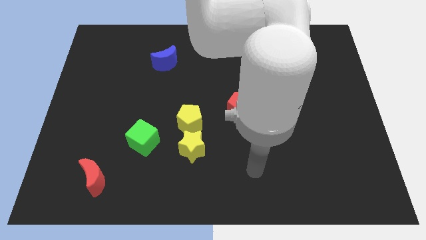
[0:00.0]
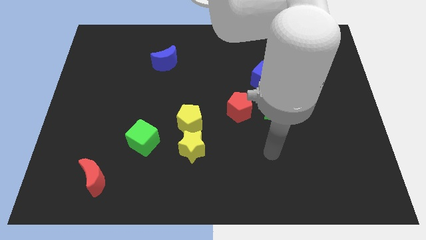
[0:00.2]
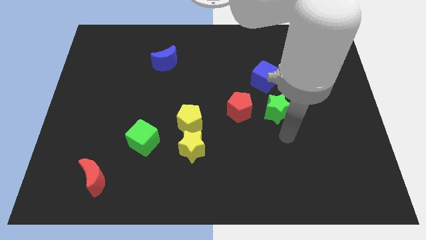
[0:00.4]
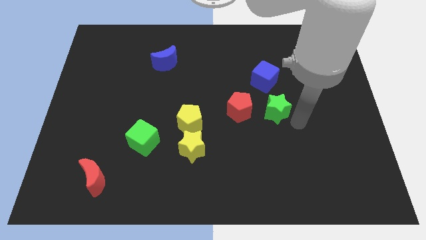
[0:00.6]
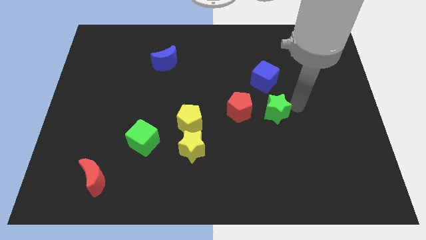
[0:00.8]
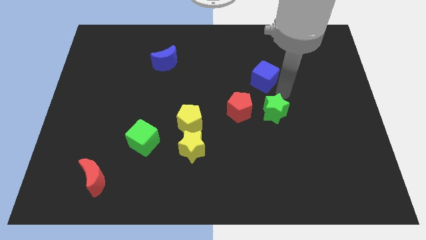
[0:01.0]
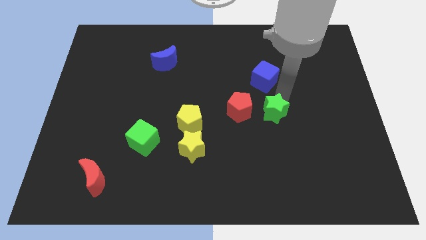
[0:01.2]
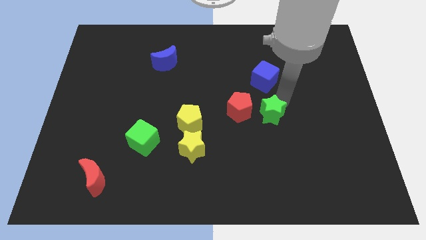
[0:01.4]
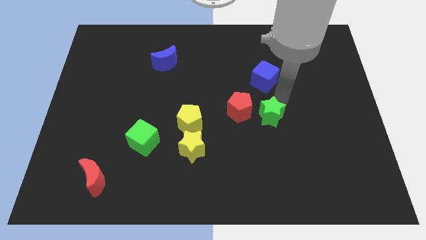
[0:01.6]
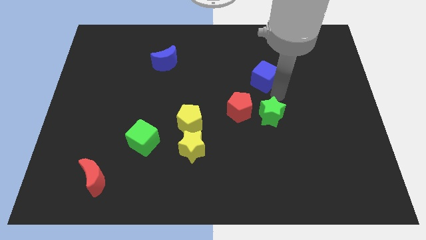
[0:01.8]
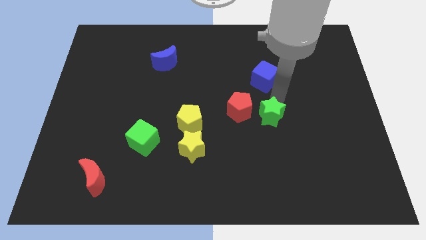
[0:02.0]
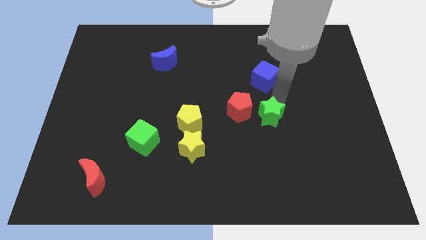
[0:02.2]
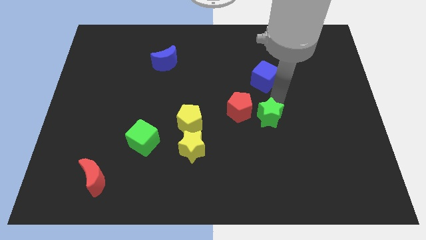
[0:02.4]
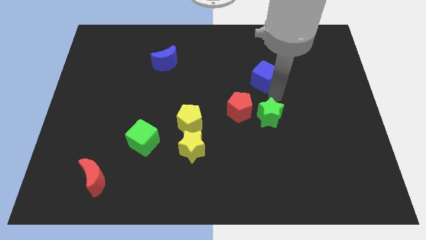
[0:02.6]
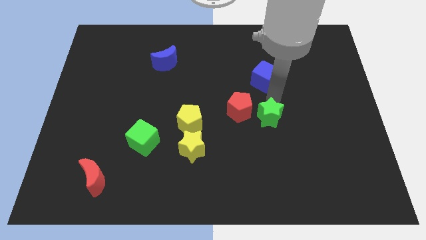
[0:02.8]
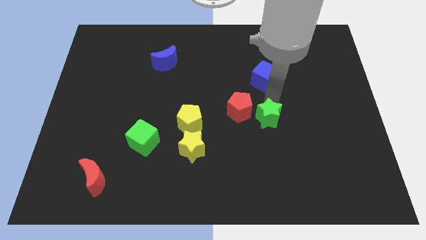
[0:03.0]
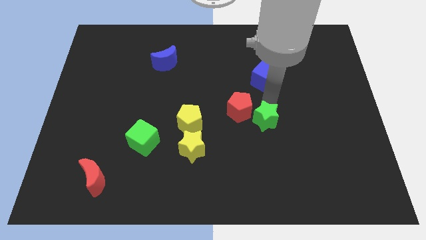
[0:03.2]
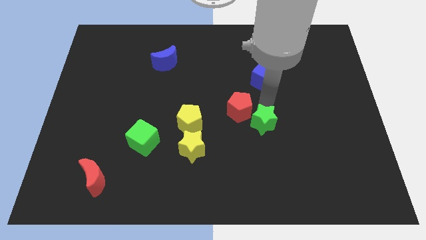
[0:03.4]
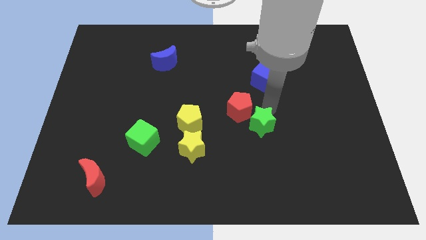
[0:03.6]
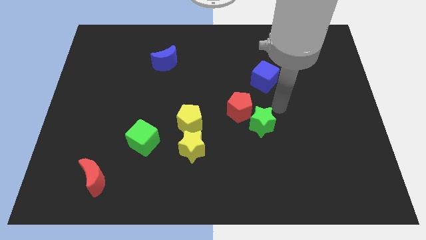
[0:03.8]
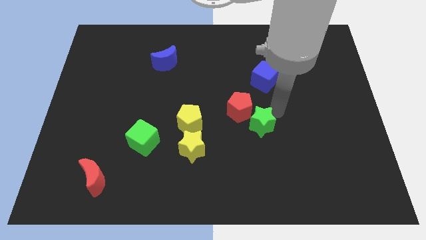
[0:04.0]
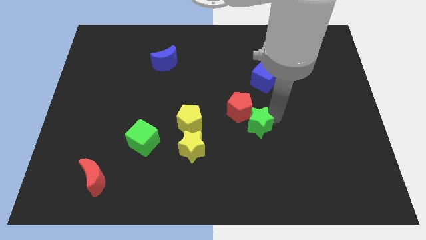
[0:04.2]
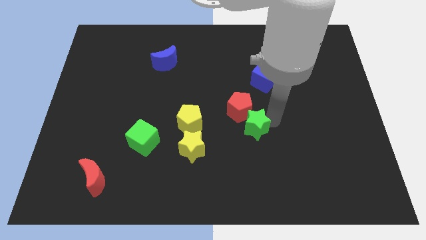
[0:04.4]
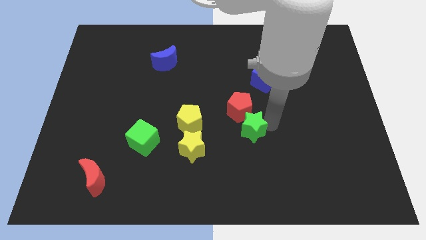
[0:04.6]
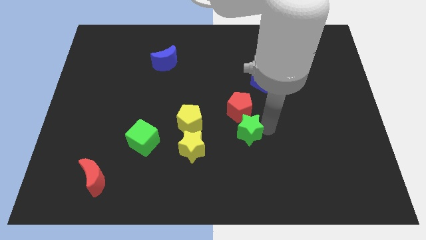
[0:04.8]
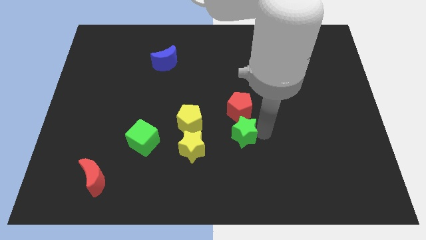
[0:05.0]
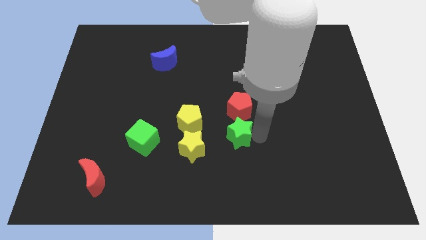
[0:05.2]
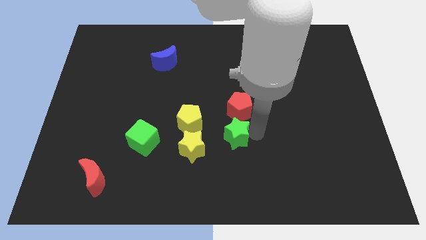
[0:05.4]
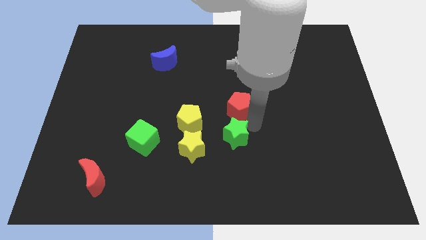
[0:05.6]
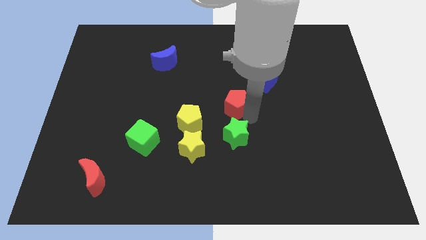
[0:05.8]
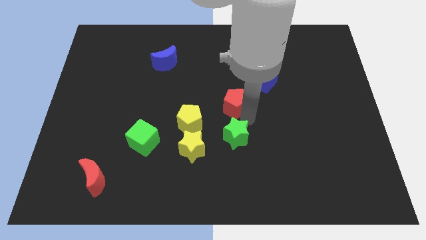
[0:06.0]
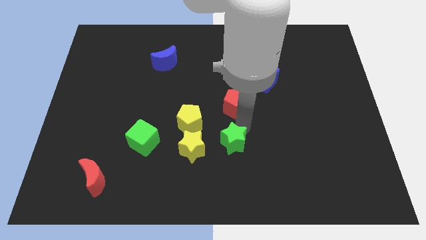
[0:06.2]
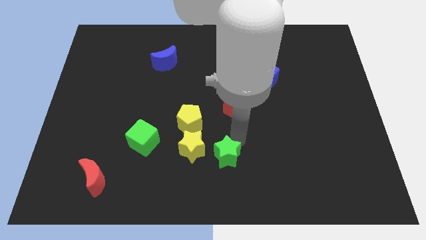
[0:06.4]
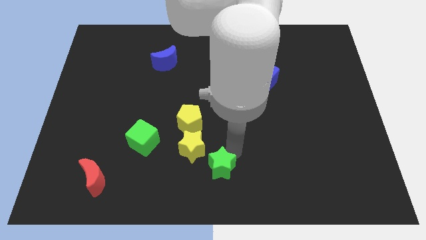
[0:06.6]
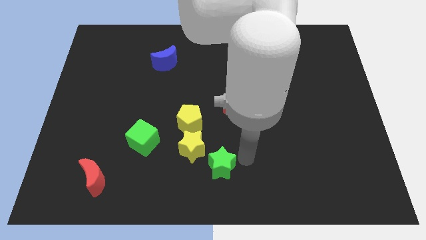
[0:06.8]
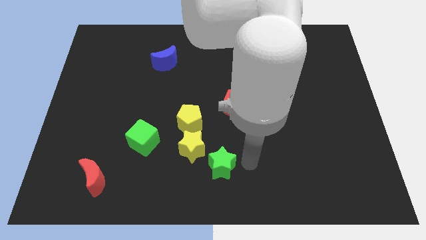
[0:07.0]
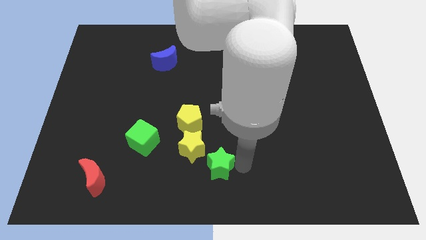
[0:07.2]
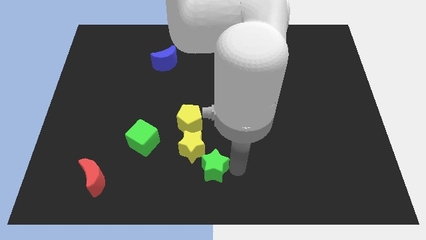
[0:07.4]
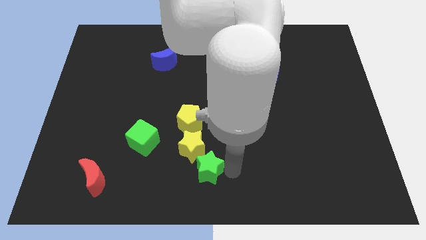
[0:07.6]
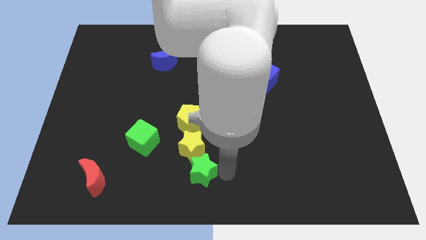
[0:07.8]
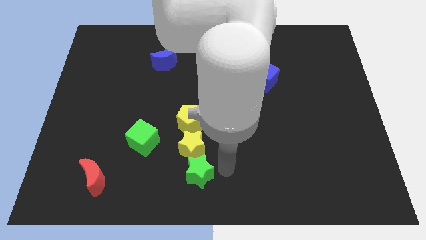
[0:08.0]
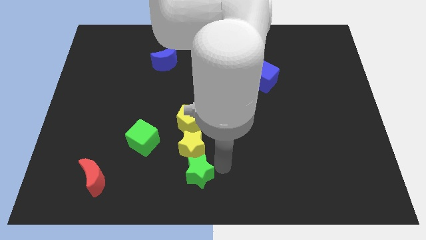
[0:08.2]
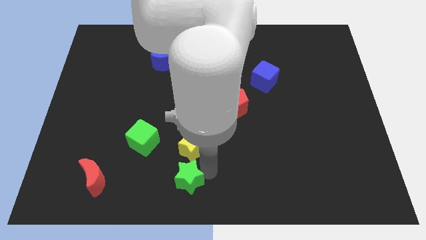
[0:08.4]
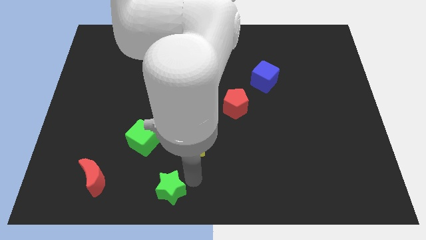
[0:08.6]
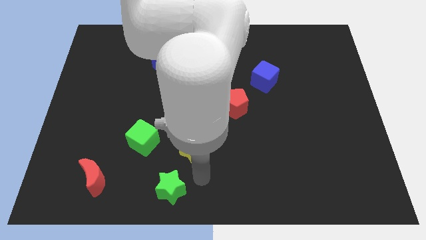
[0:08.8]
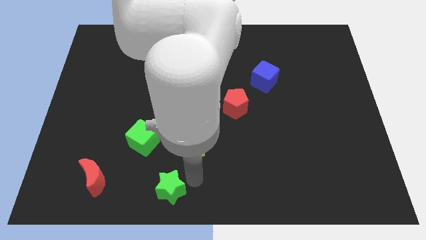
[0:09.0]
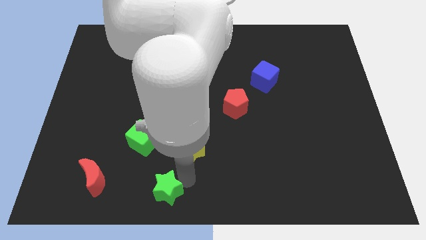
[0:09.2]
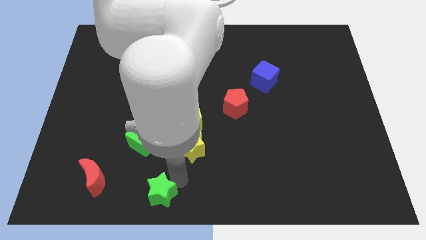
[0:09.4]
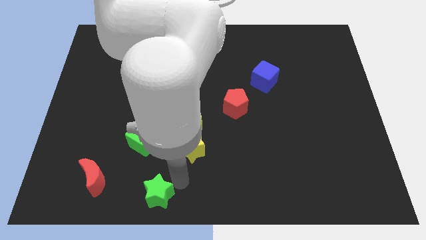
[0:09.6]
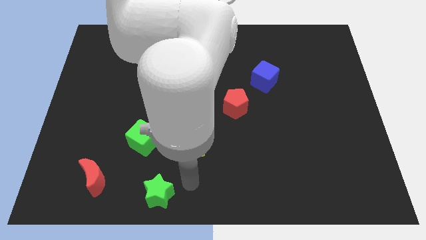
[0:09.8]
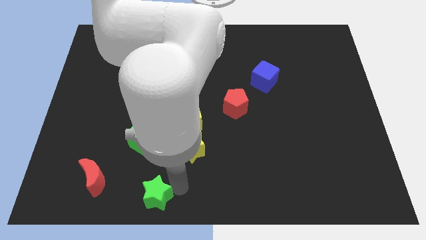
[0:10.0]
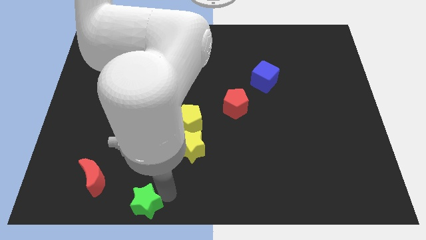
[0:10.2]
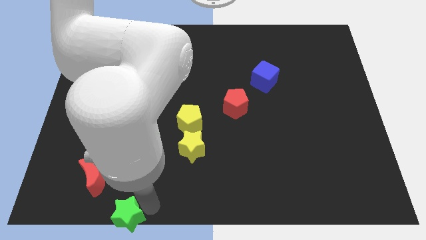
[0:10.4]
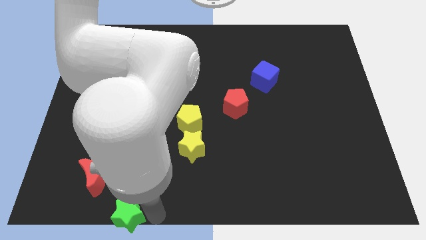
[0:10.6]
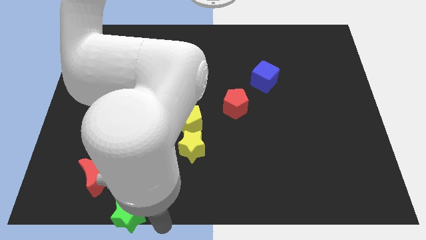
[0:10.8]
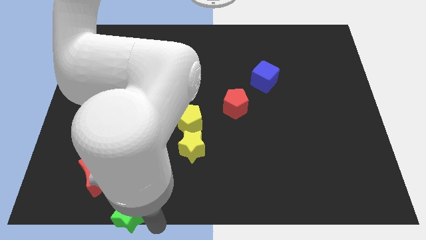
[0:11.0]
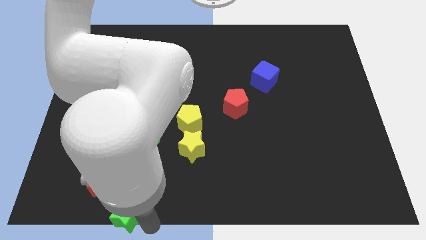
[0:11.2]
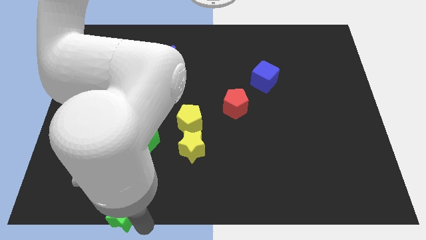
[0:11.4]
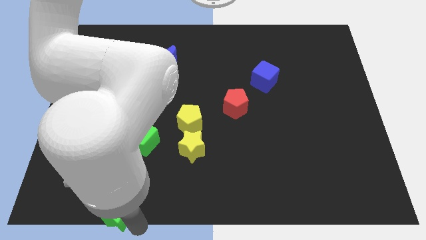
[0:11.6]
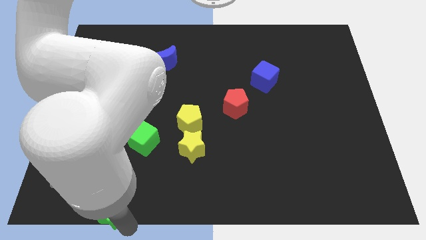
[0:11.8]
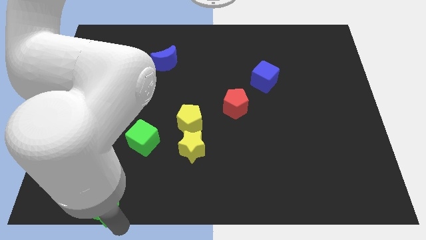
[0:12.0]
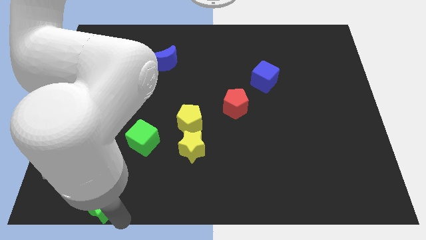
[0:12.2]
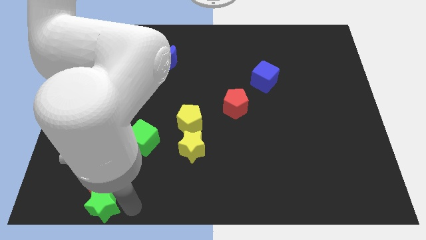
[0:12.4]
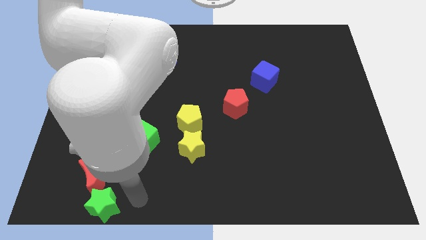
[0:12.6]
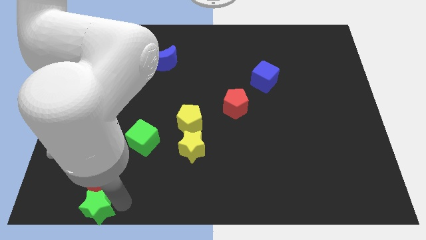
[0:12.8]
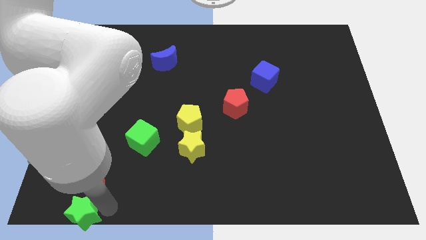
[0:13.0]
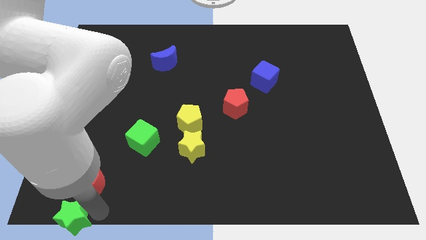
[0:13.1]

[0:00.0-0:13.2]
move the green star to the bottom left corner
